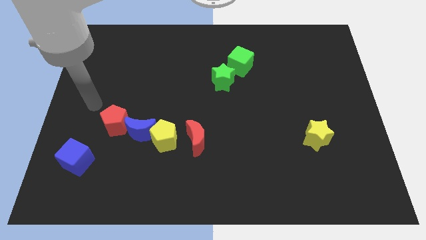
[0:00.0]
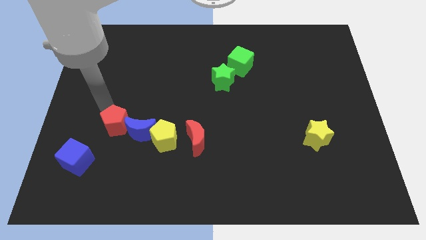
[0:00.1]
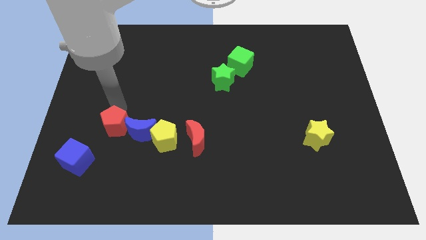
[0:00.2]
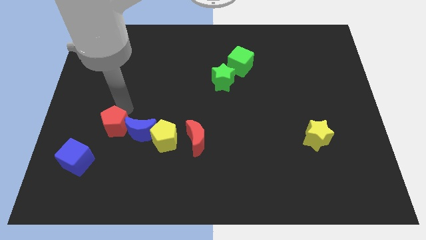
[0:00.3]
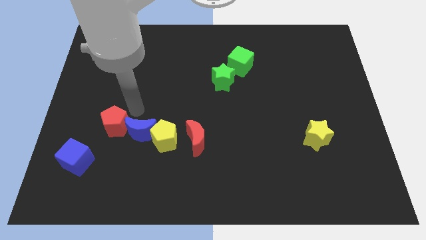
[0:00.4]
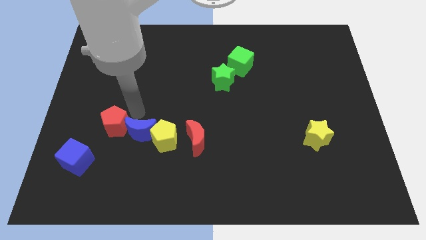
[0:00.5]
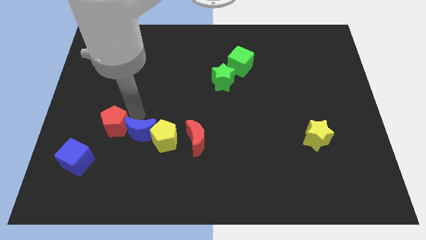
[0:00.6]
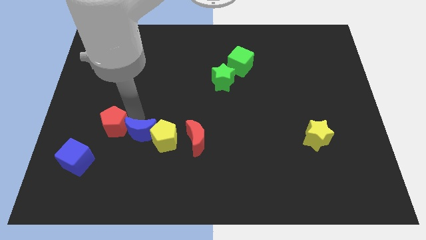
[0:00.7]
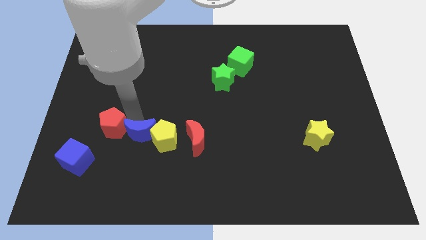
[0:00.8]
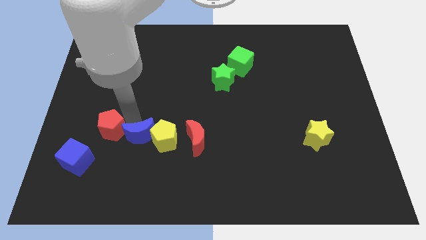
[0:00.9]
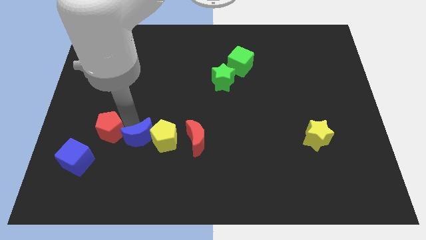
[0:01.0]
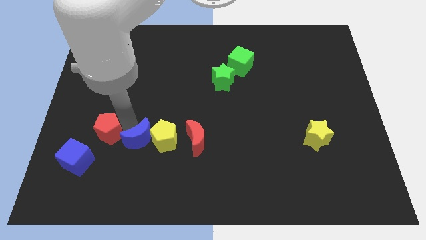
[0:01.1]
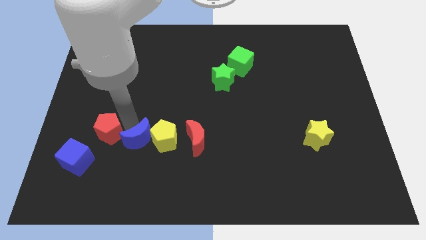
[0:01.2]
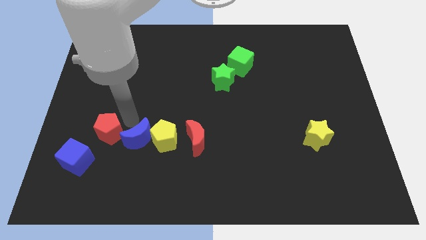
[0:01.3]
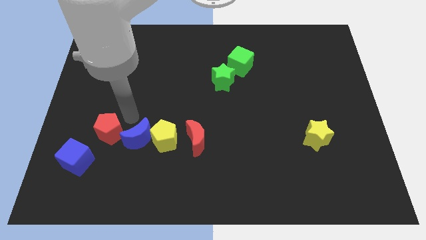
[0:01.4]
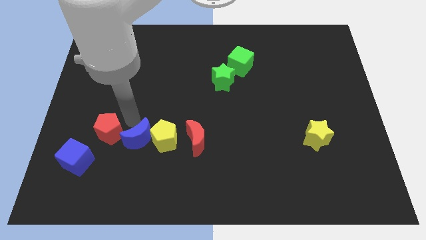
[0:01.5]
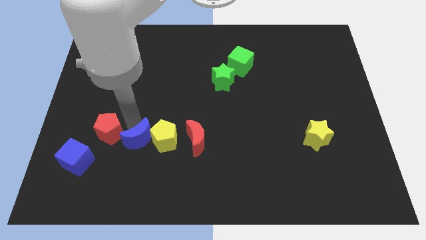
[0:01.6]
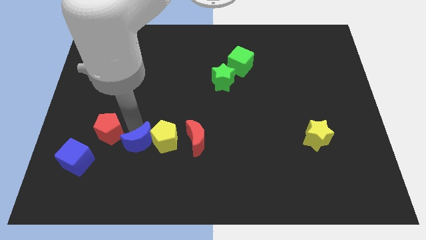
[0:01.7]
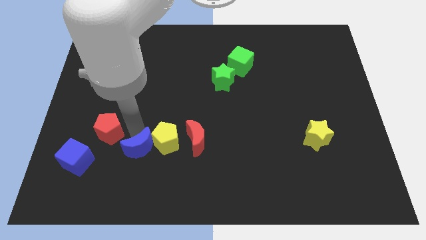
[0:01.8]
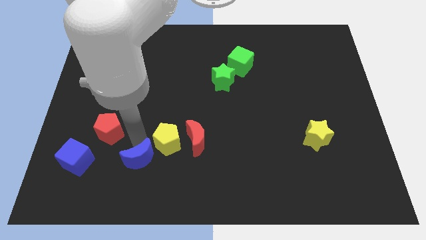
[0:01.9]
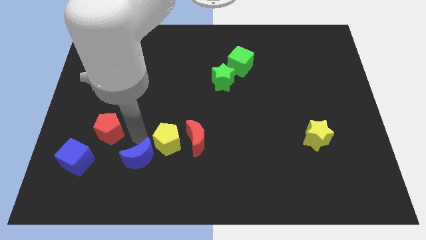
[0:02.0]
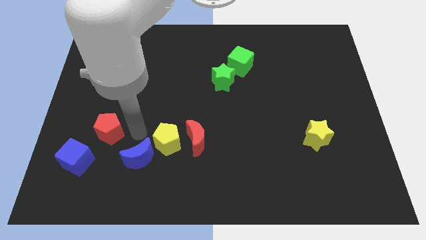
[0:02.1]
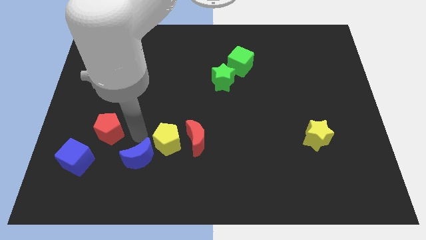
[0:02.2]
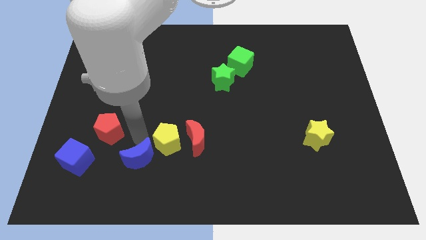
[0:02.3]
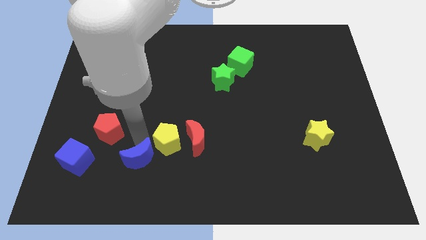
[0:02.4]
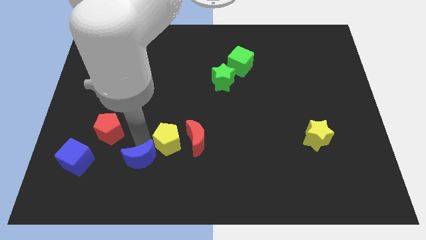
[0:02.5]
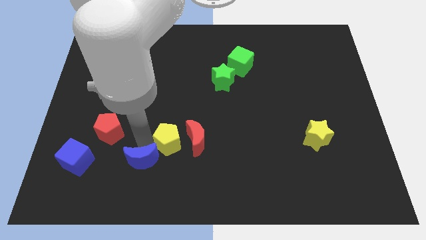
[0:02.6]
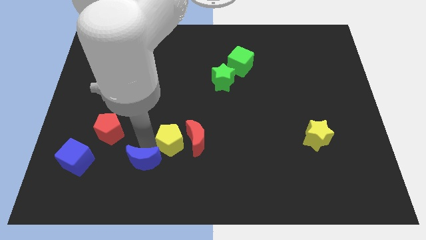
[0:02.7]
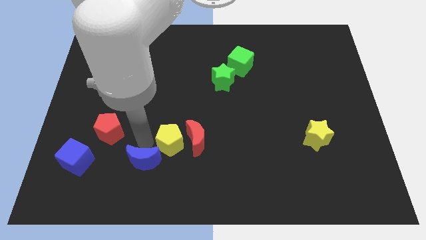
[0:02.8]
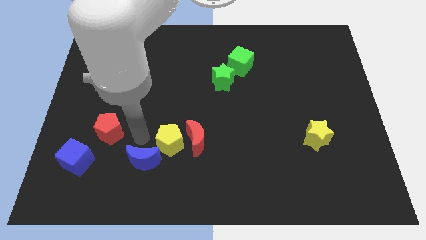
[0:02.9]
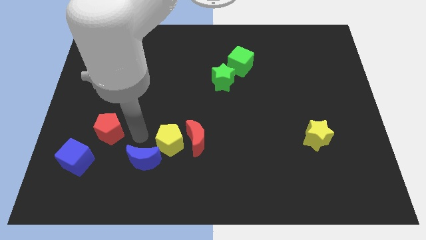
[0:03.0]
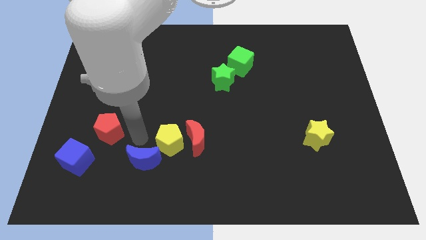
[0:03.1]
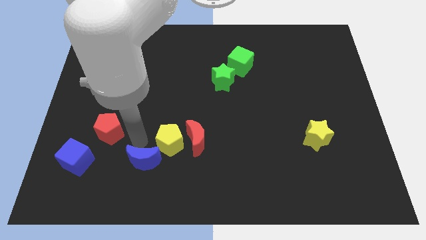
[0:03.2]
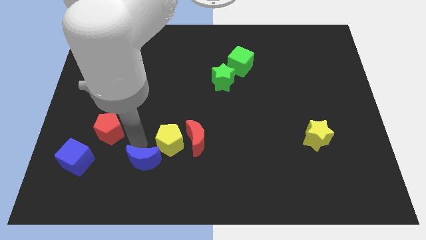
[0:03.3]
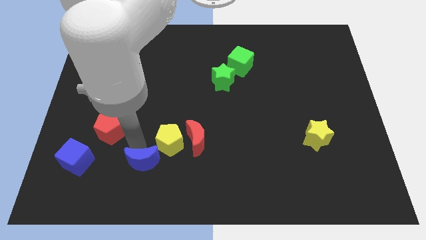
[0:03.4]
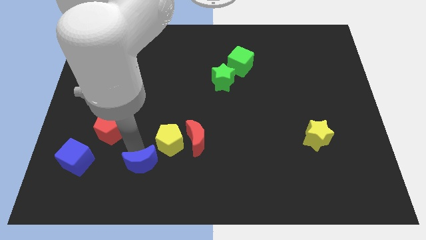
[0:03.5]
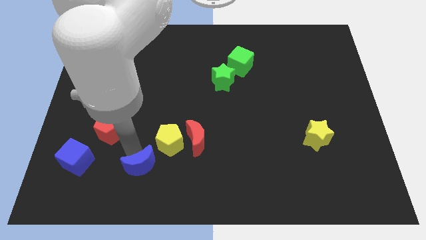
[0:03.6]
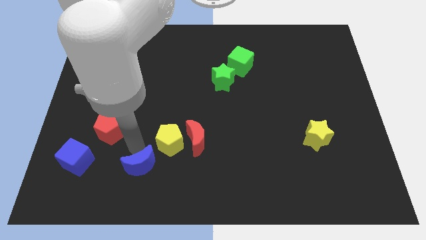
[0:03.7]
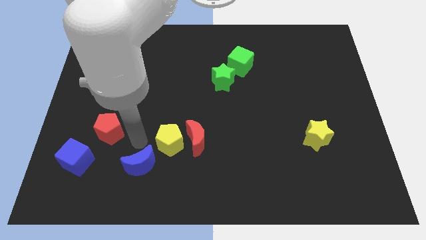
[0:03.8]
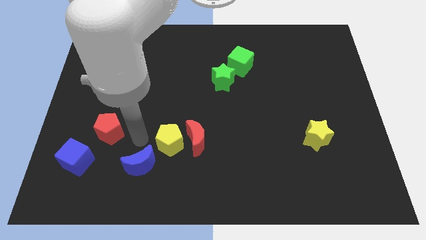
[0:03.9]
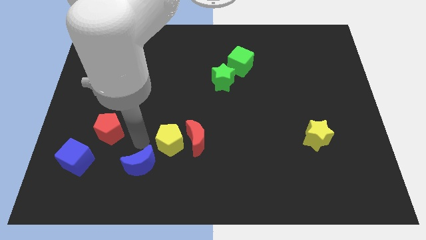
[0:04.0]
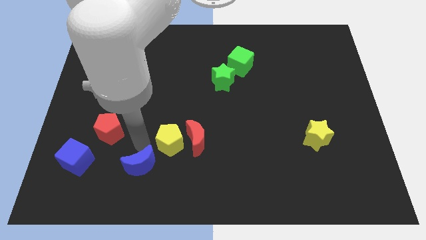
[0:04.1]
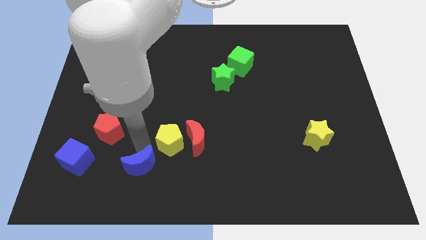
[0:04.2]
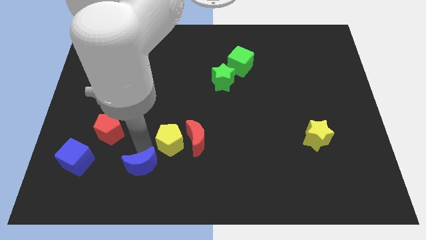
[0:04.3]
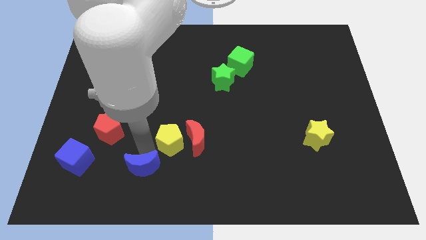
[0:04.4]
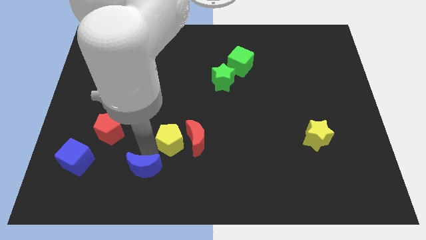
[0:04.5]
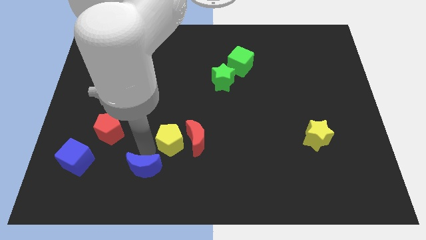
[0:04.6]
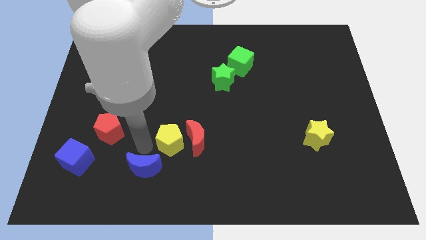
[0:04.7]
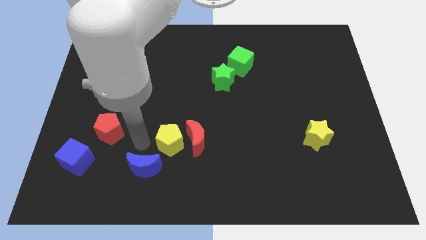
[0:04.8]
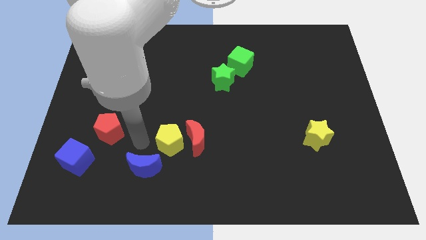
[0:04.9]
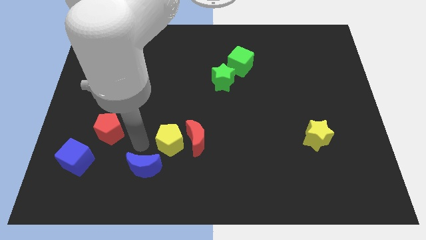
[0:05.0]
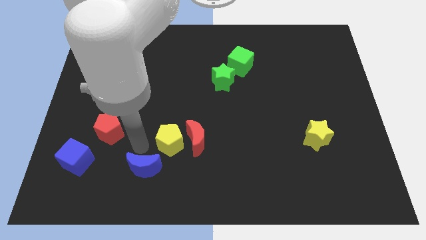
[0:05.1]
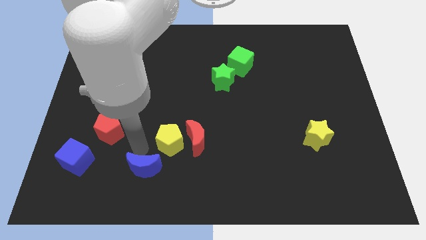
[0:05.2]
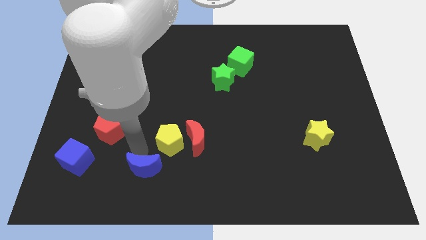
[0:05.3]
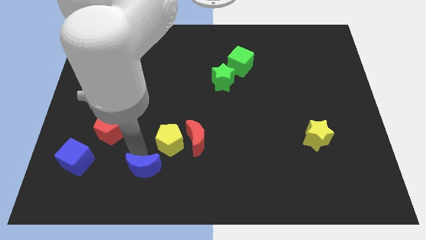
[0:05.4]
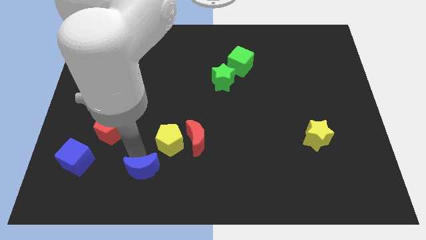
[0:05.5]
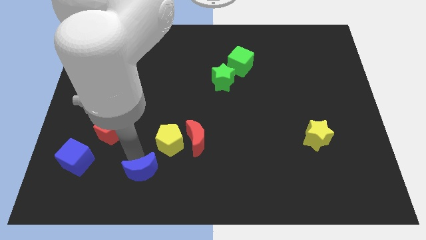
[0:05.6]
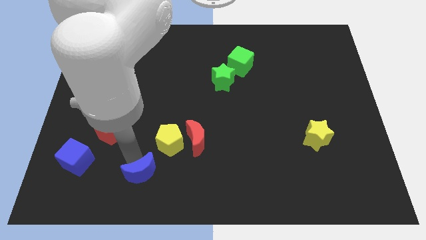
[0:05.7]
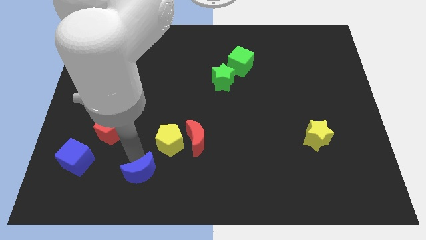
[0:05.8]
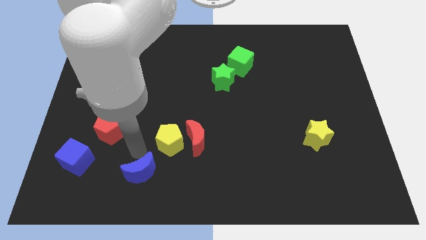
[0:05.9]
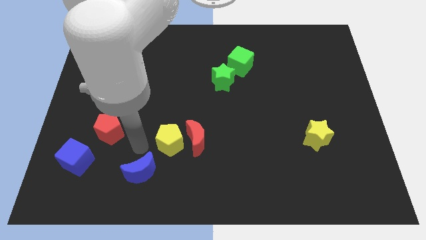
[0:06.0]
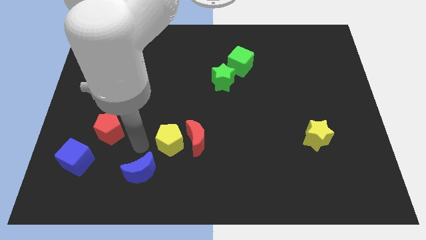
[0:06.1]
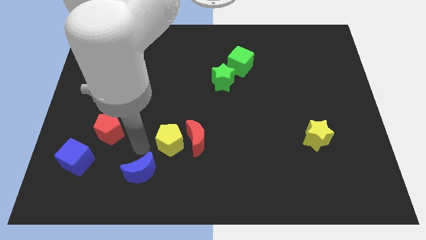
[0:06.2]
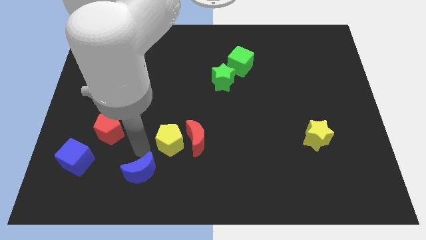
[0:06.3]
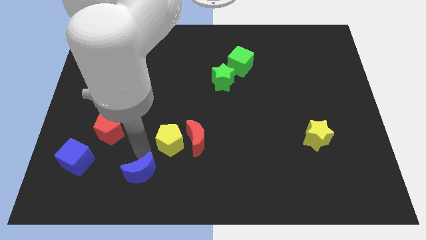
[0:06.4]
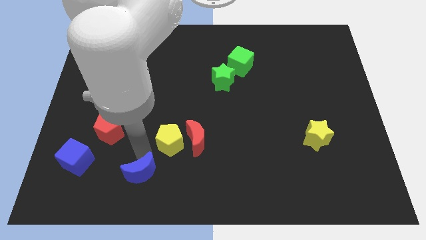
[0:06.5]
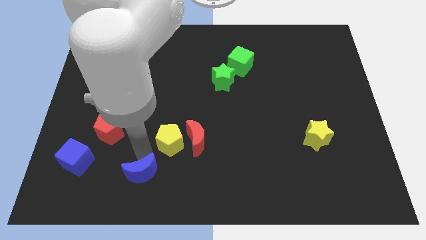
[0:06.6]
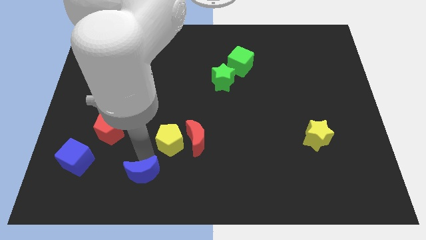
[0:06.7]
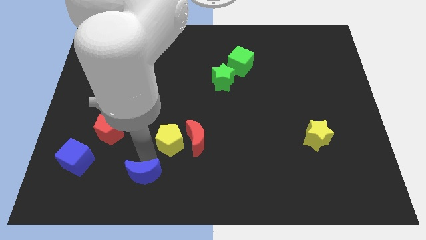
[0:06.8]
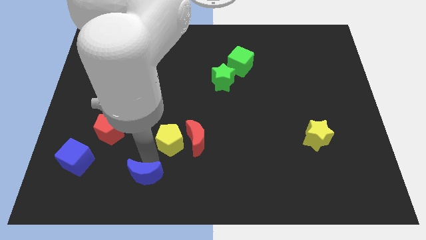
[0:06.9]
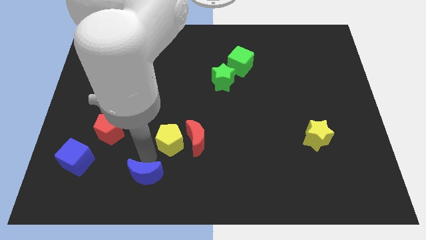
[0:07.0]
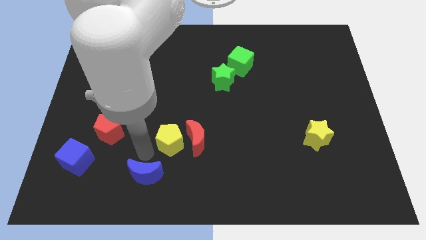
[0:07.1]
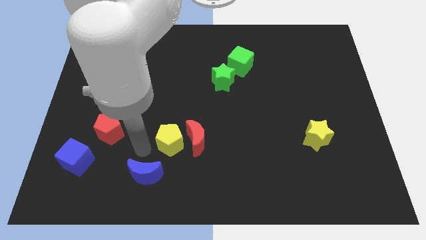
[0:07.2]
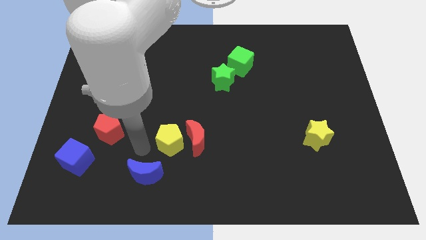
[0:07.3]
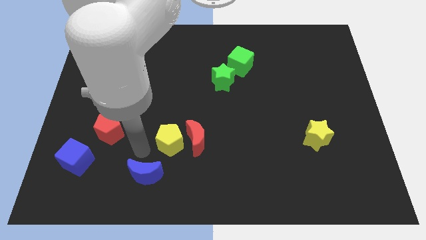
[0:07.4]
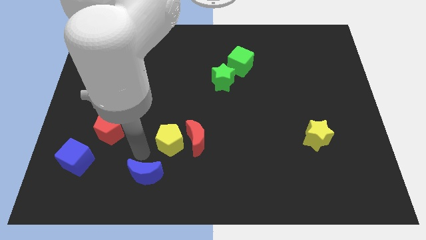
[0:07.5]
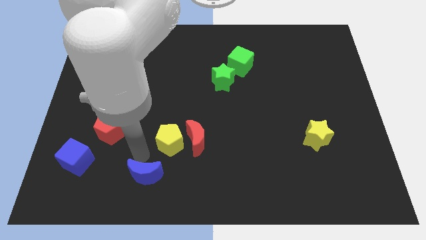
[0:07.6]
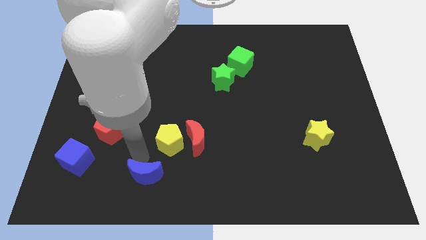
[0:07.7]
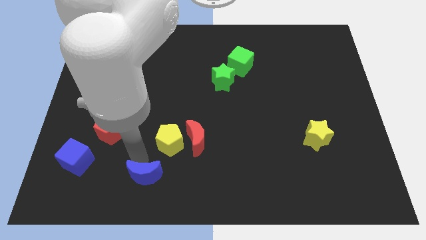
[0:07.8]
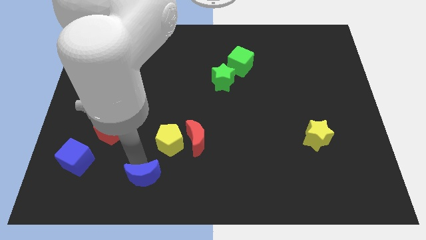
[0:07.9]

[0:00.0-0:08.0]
separate the blue moon from the yellow pentagon and red pentagon

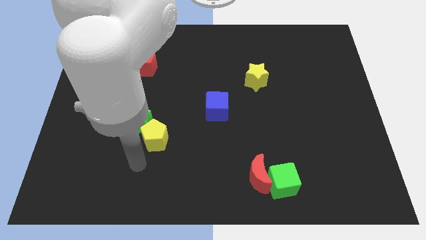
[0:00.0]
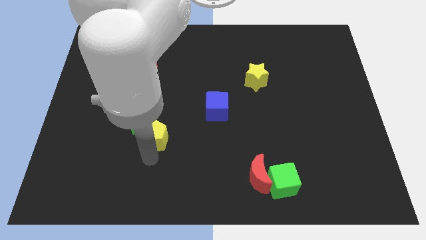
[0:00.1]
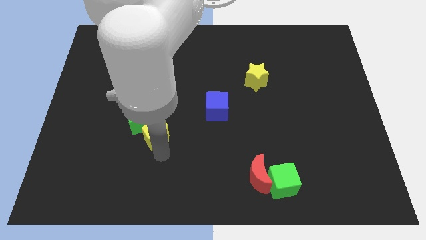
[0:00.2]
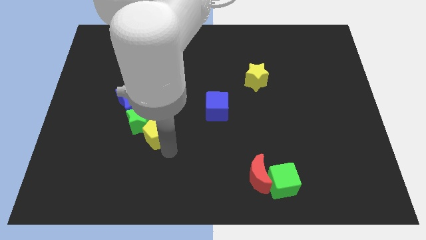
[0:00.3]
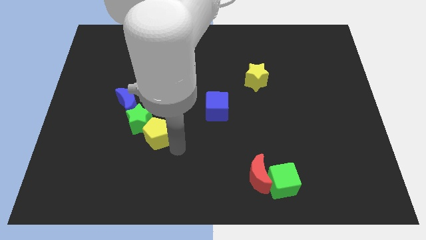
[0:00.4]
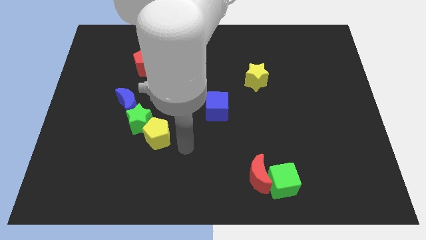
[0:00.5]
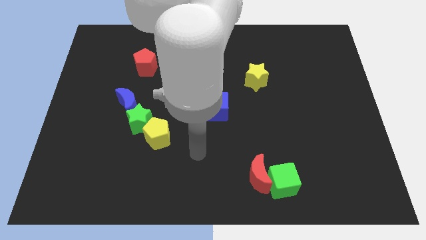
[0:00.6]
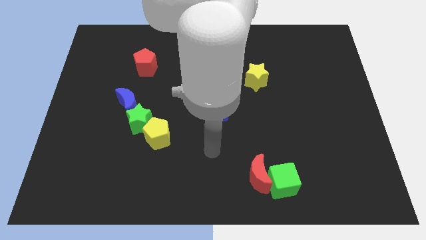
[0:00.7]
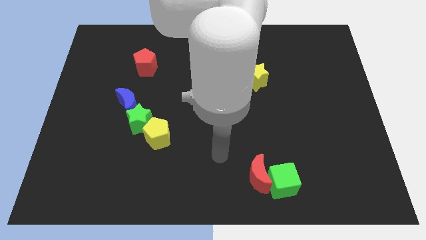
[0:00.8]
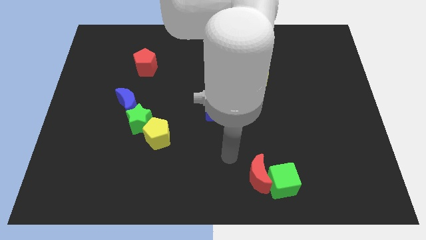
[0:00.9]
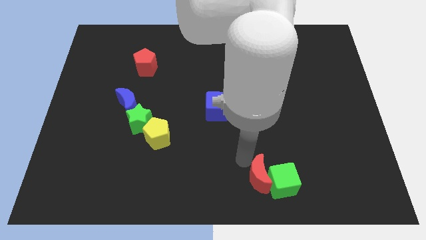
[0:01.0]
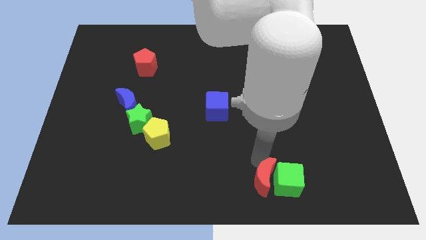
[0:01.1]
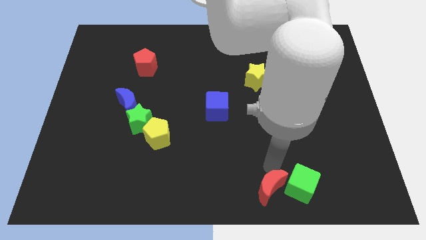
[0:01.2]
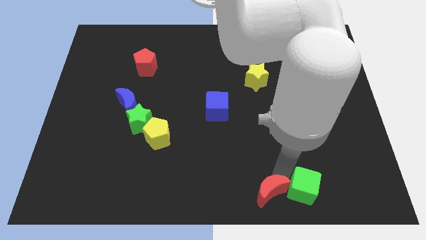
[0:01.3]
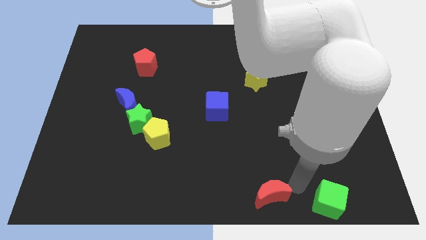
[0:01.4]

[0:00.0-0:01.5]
separate the red moon from the green cube

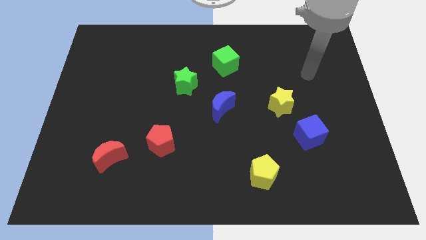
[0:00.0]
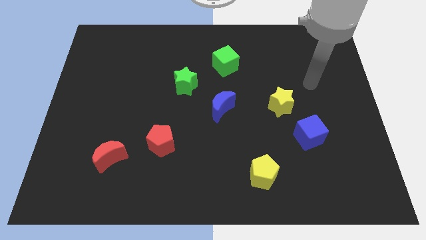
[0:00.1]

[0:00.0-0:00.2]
separate the blue cube from the yellow star
